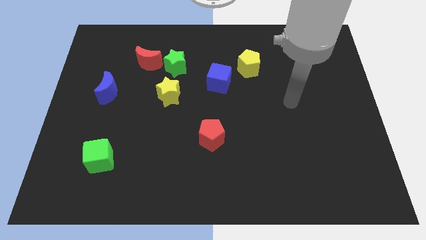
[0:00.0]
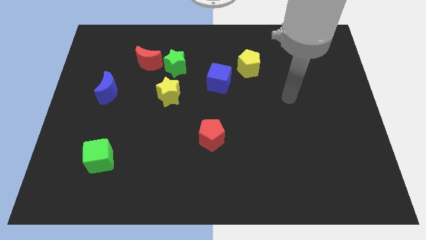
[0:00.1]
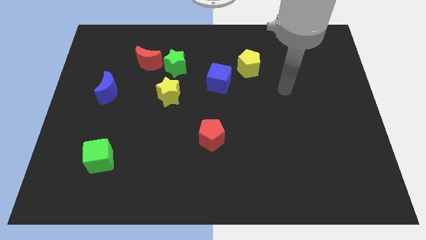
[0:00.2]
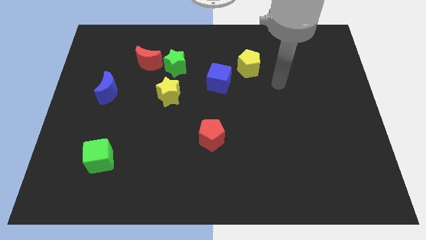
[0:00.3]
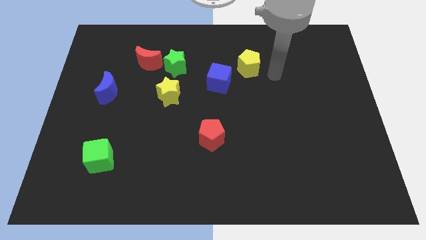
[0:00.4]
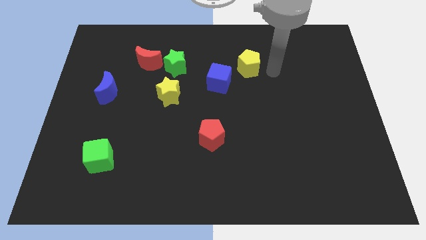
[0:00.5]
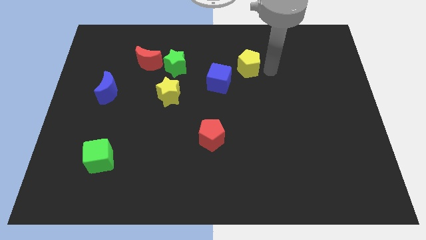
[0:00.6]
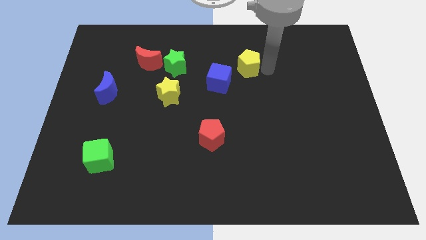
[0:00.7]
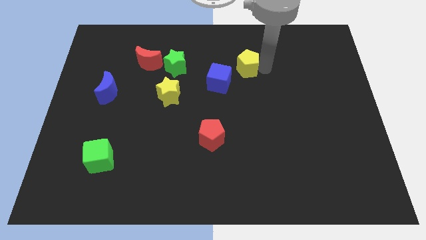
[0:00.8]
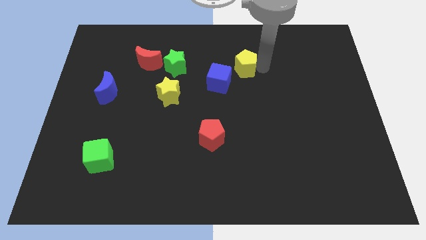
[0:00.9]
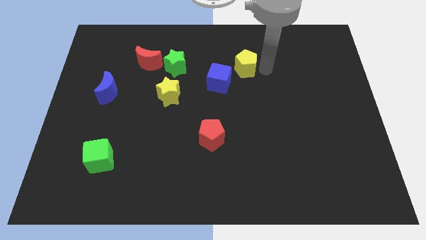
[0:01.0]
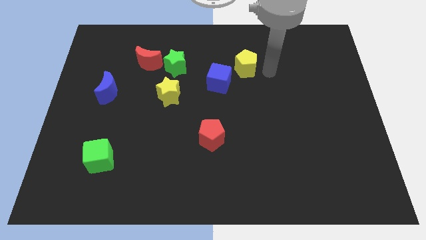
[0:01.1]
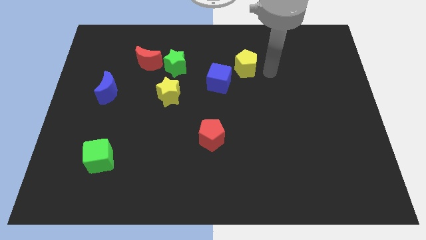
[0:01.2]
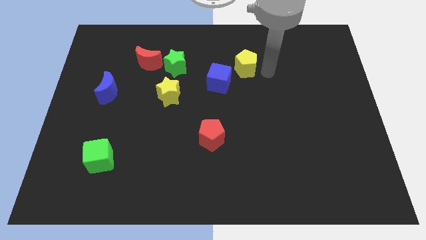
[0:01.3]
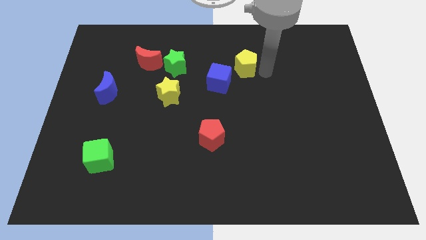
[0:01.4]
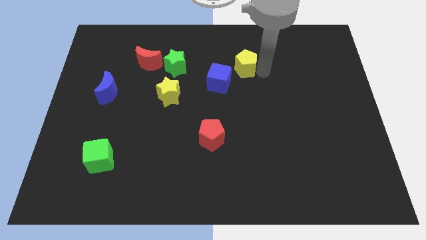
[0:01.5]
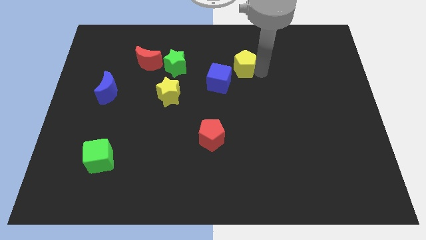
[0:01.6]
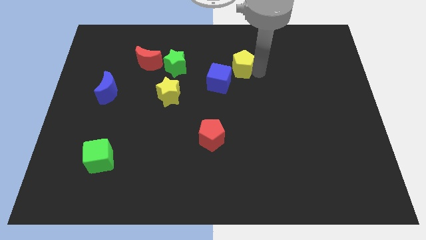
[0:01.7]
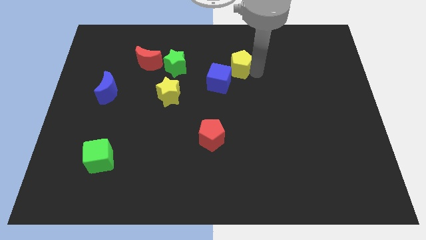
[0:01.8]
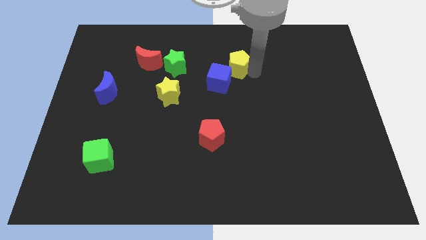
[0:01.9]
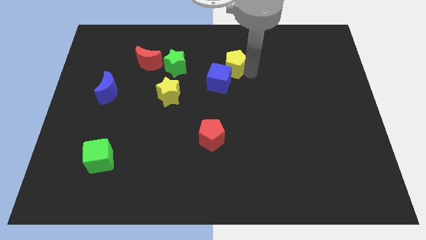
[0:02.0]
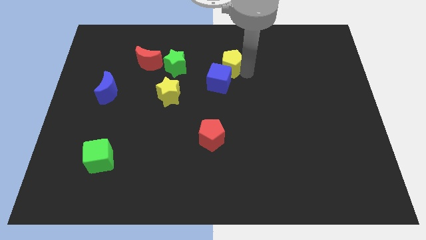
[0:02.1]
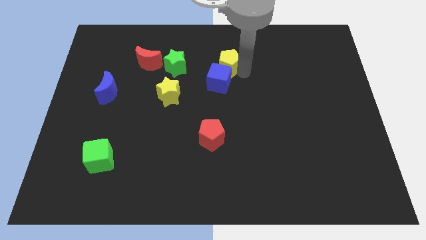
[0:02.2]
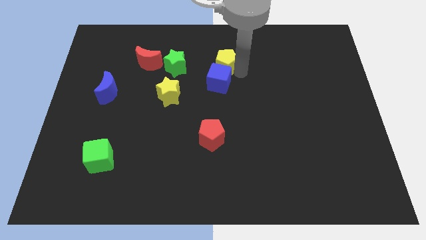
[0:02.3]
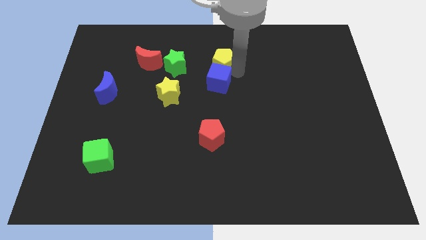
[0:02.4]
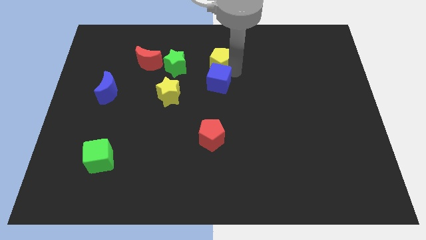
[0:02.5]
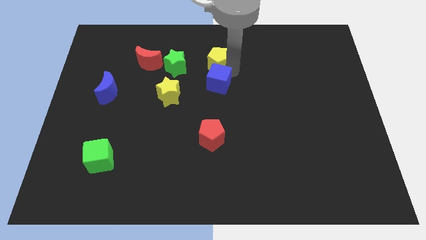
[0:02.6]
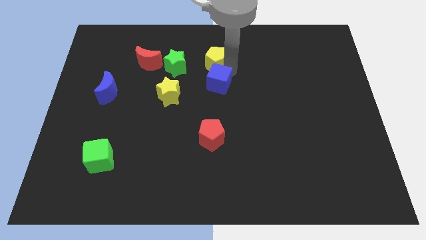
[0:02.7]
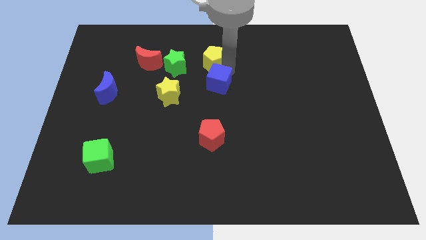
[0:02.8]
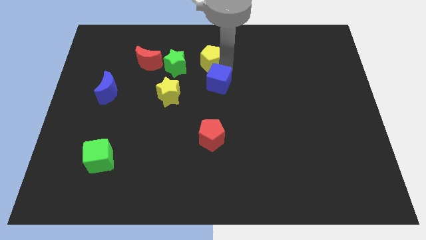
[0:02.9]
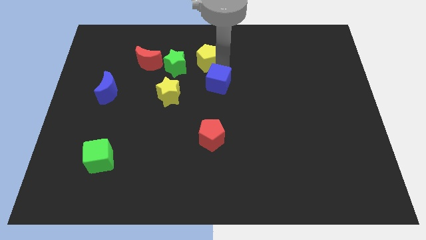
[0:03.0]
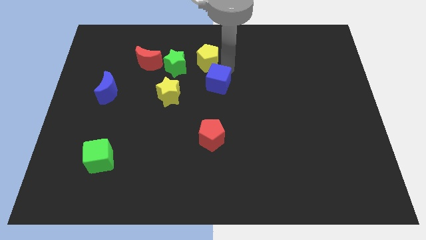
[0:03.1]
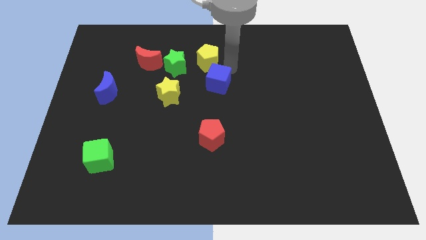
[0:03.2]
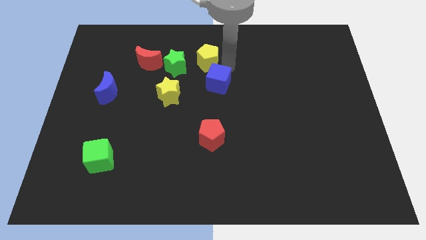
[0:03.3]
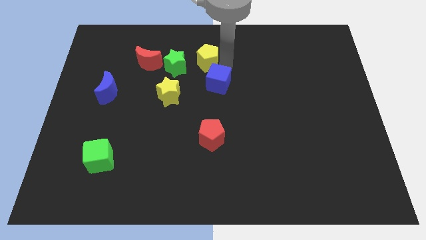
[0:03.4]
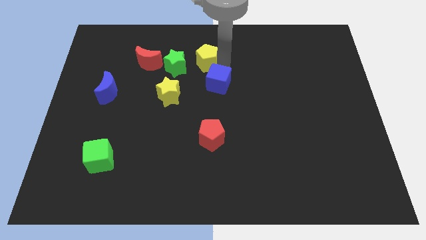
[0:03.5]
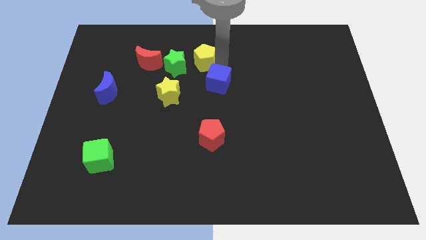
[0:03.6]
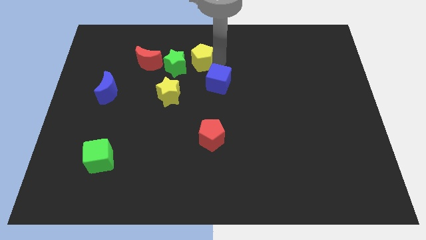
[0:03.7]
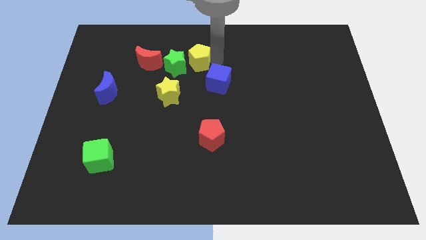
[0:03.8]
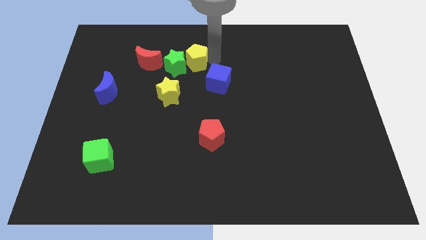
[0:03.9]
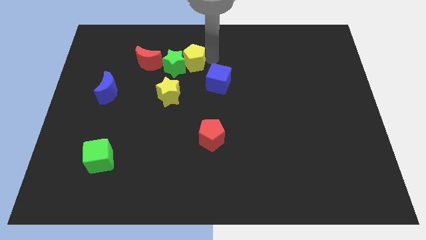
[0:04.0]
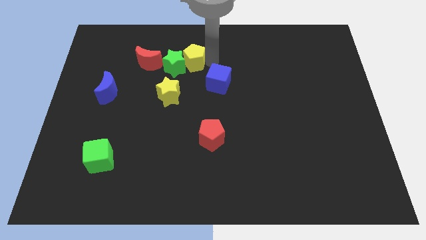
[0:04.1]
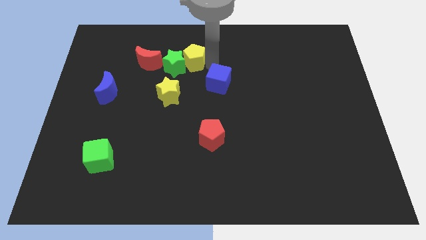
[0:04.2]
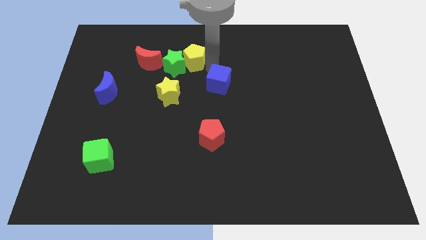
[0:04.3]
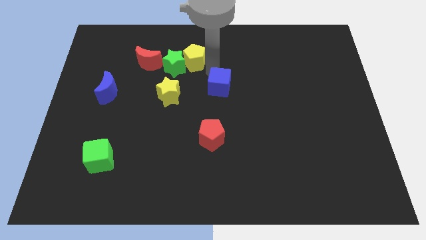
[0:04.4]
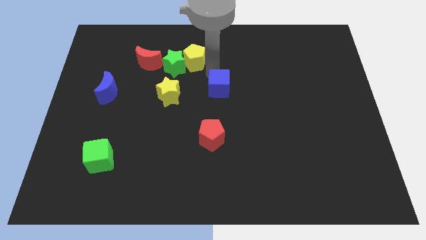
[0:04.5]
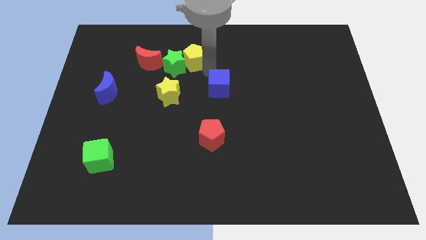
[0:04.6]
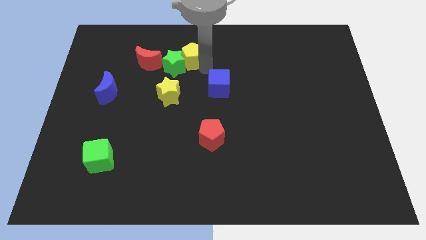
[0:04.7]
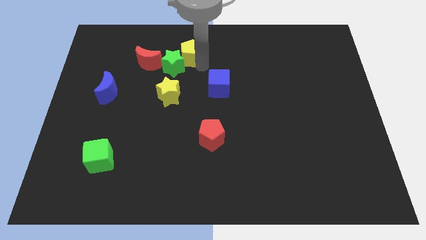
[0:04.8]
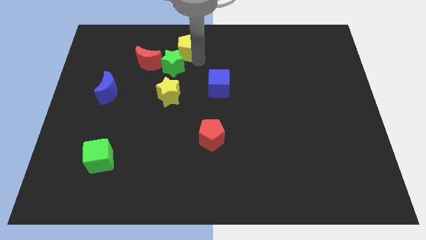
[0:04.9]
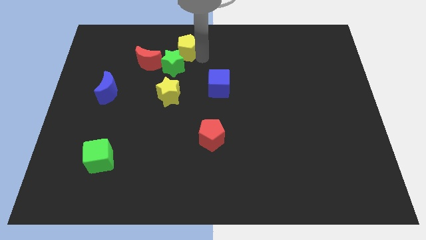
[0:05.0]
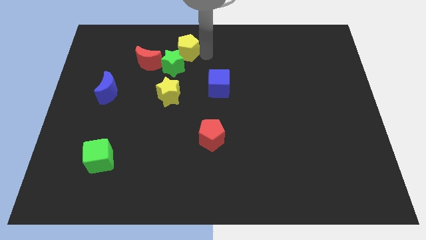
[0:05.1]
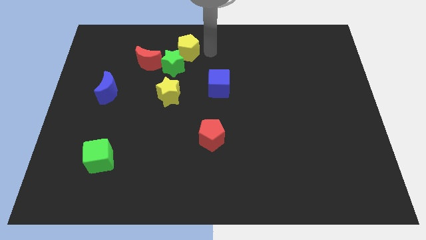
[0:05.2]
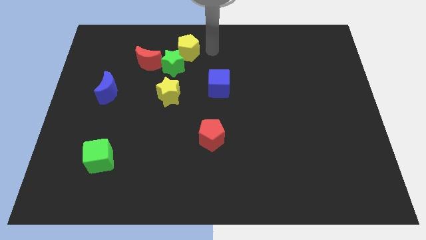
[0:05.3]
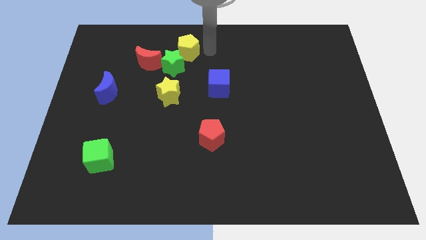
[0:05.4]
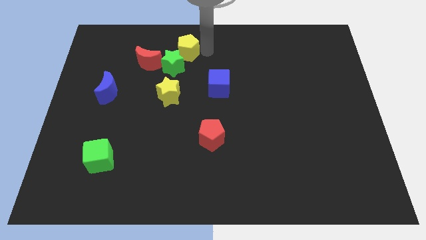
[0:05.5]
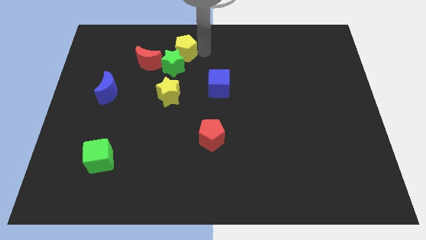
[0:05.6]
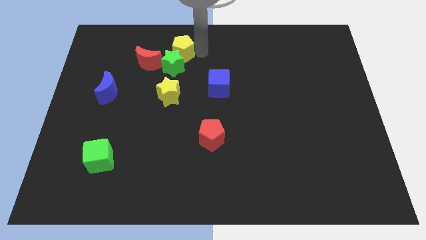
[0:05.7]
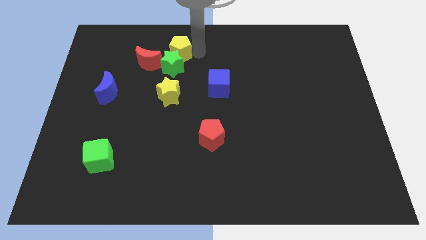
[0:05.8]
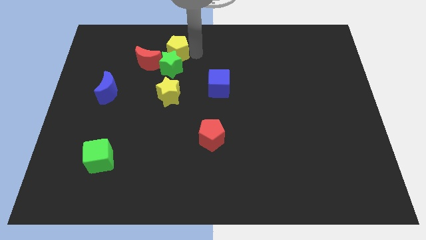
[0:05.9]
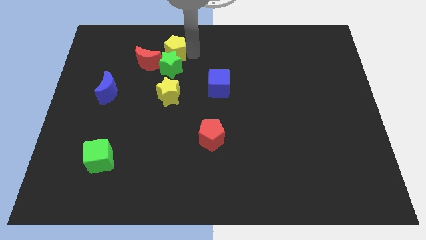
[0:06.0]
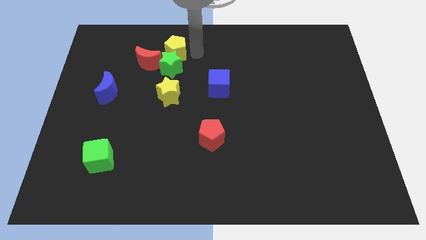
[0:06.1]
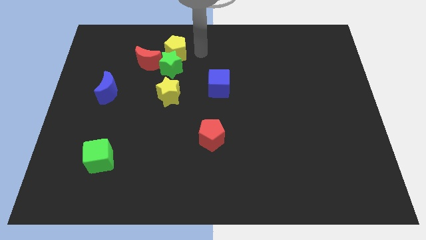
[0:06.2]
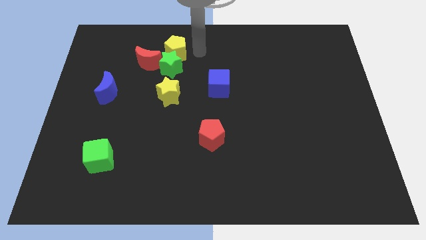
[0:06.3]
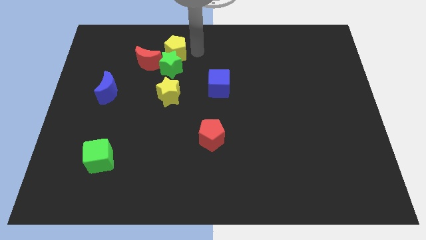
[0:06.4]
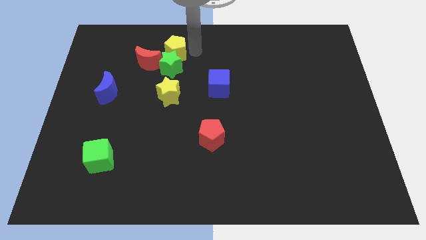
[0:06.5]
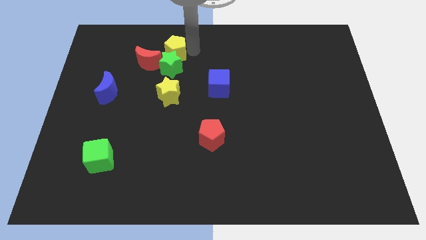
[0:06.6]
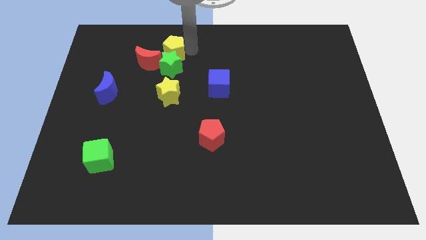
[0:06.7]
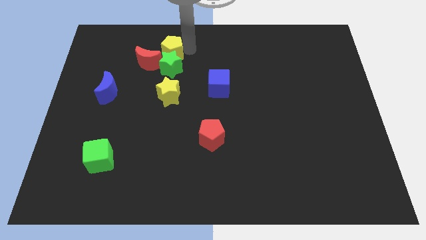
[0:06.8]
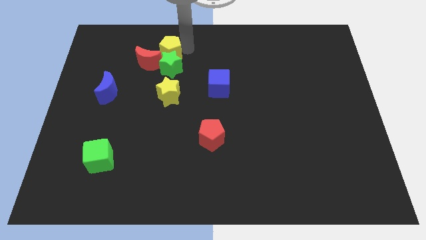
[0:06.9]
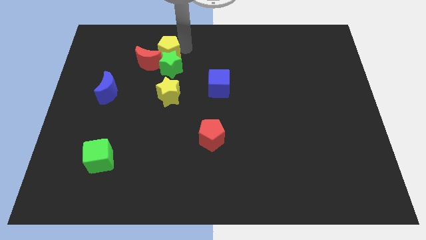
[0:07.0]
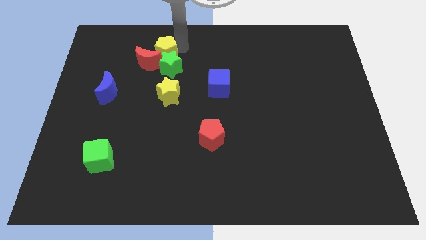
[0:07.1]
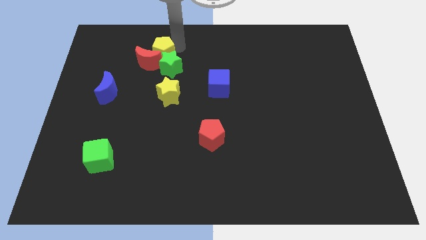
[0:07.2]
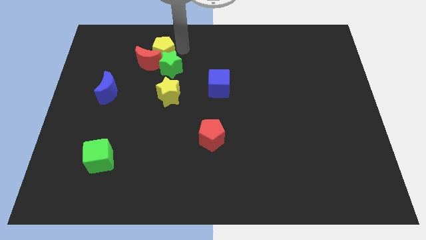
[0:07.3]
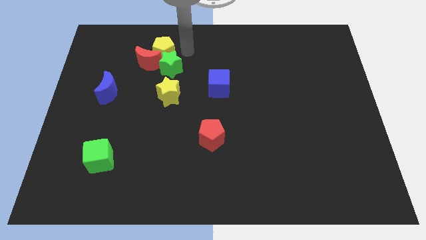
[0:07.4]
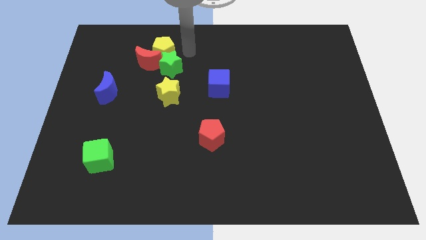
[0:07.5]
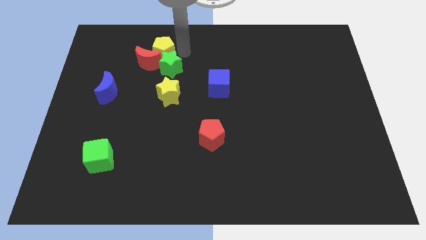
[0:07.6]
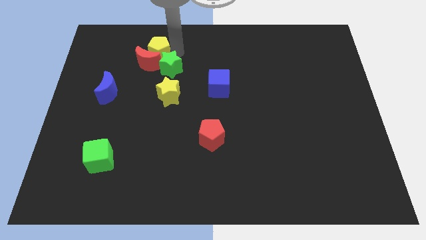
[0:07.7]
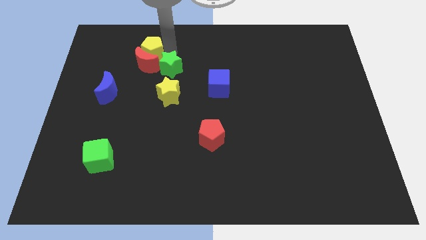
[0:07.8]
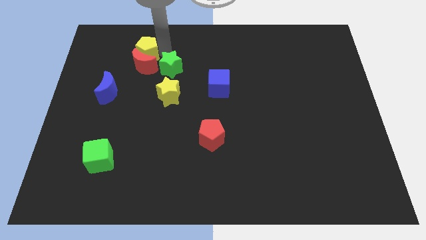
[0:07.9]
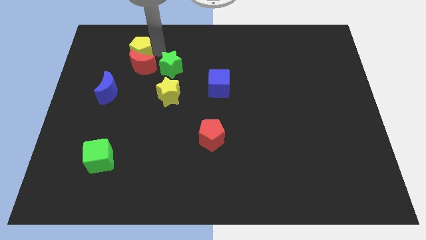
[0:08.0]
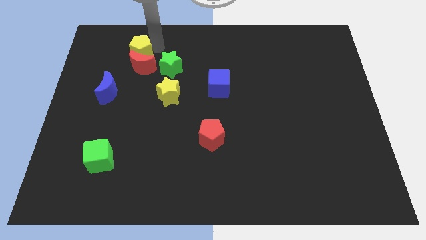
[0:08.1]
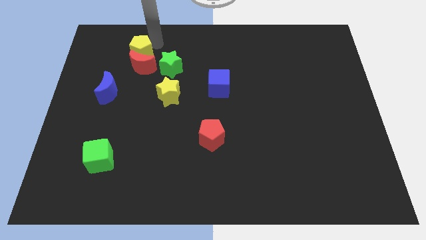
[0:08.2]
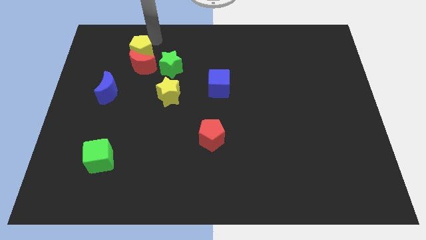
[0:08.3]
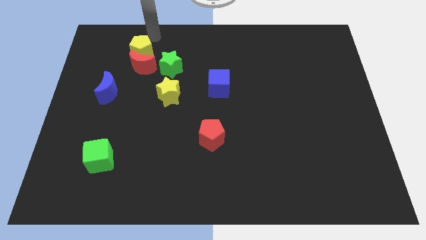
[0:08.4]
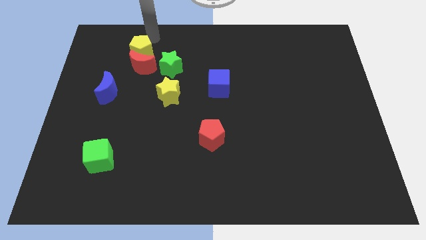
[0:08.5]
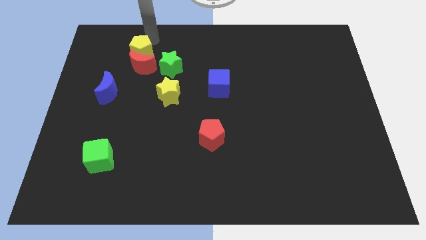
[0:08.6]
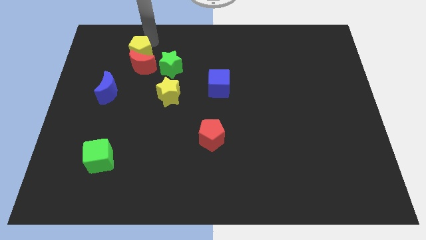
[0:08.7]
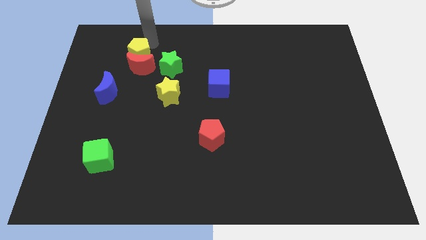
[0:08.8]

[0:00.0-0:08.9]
put the yellow pentagon to the left of the green star

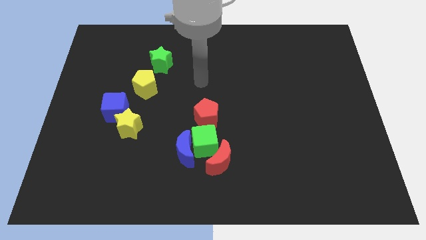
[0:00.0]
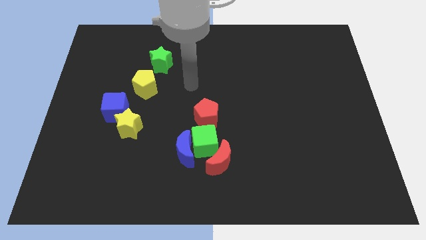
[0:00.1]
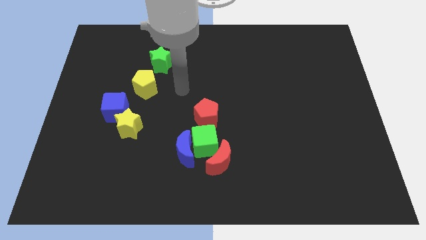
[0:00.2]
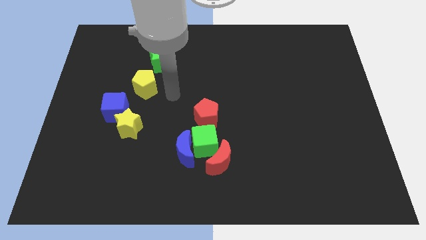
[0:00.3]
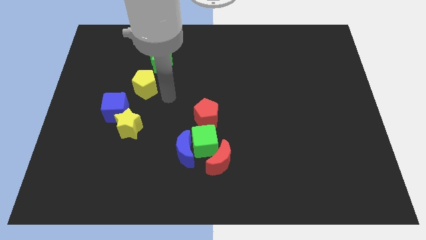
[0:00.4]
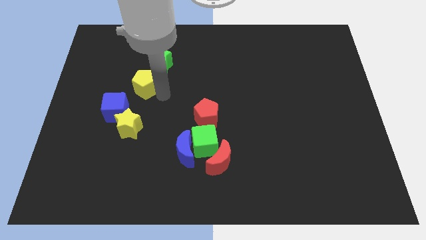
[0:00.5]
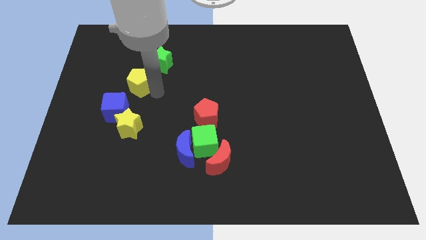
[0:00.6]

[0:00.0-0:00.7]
put the yellow pentagon to the top of the blue cube
